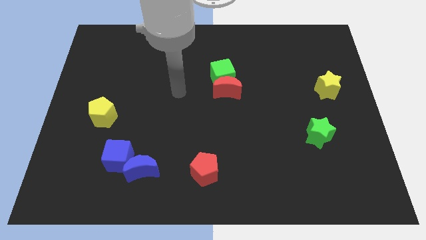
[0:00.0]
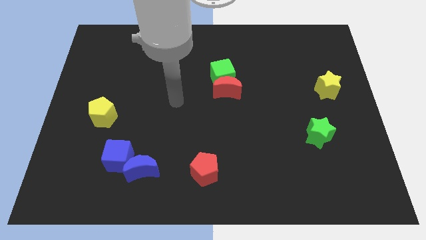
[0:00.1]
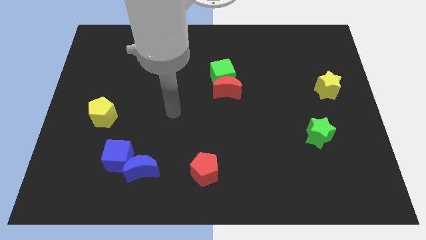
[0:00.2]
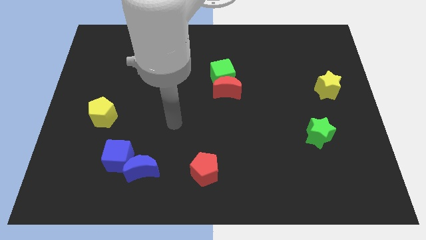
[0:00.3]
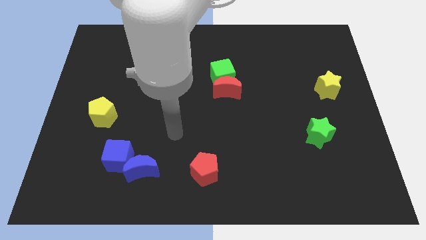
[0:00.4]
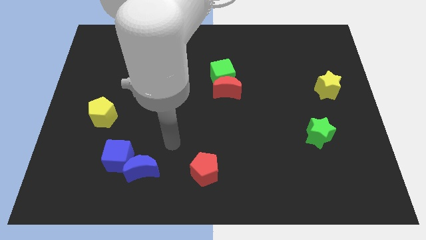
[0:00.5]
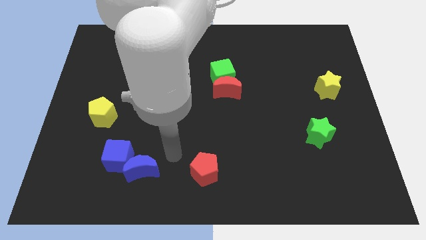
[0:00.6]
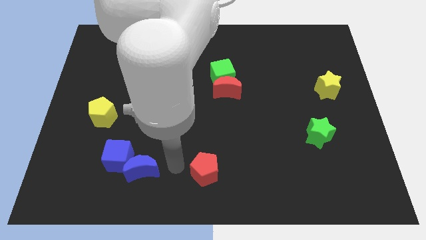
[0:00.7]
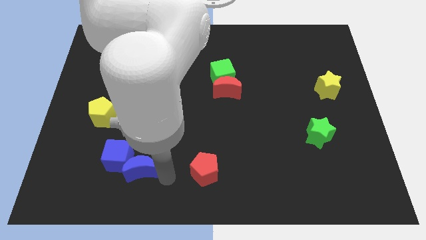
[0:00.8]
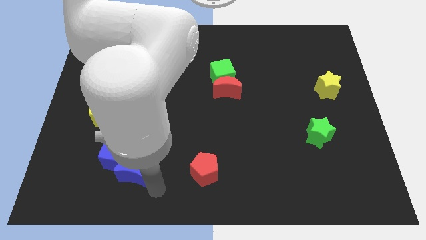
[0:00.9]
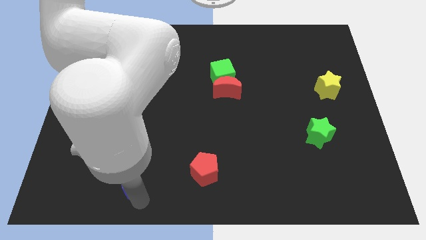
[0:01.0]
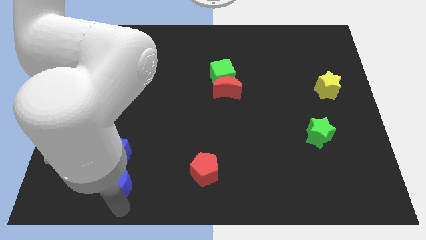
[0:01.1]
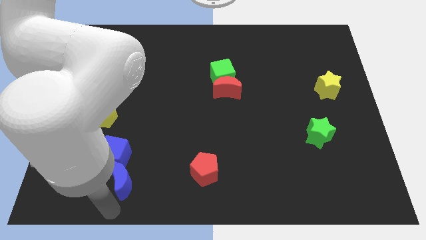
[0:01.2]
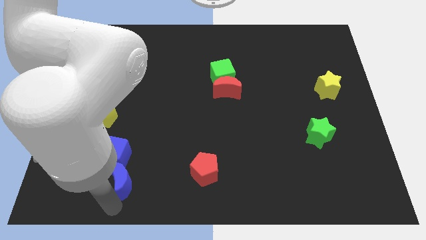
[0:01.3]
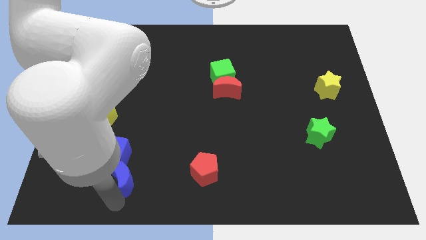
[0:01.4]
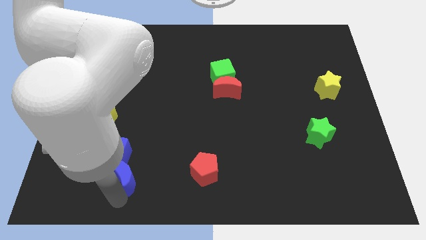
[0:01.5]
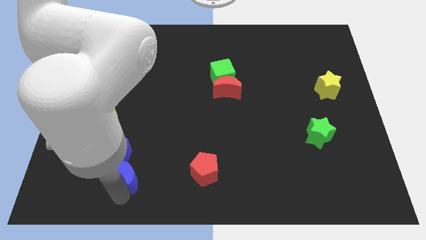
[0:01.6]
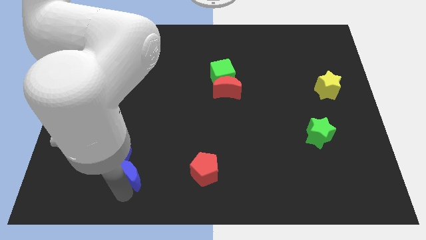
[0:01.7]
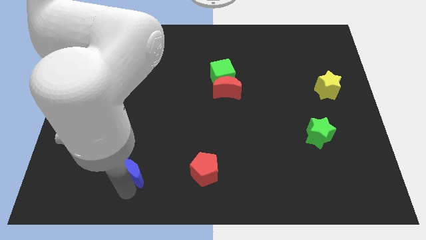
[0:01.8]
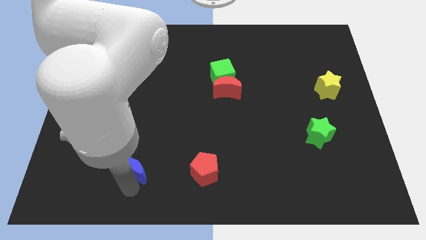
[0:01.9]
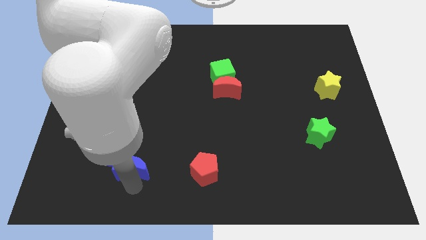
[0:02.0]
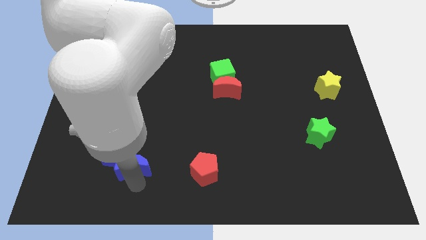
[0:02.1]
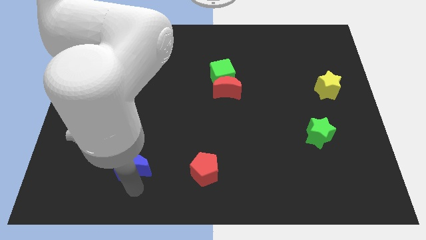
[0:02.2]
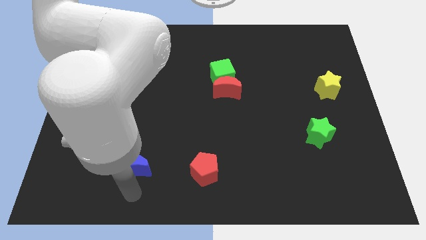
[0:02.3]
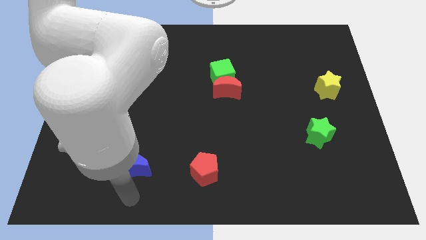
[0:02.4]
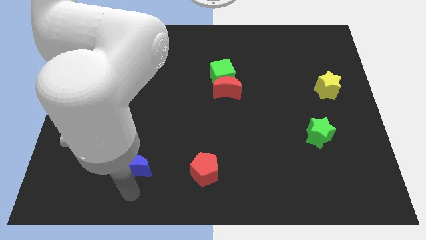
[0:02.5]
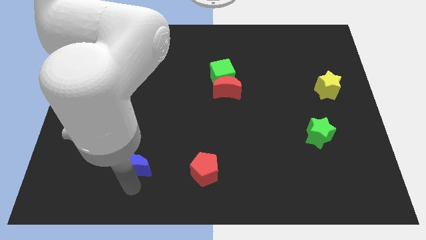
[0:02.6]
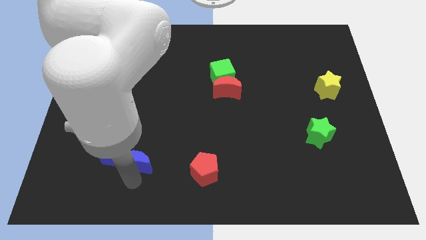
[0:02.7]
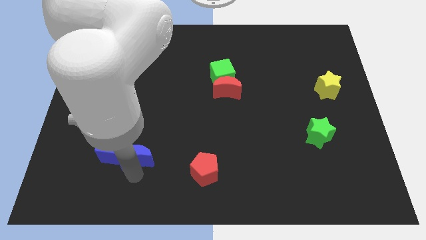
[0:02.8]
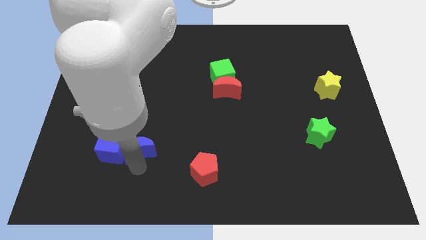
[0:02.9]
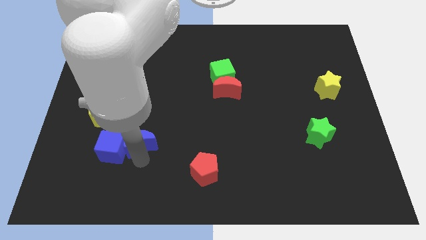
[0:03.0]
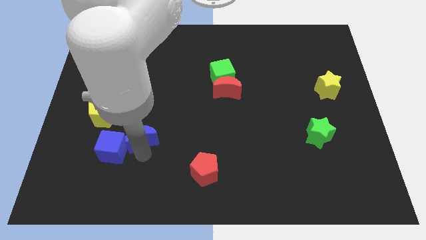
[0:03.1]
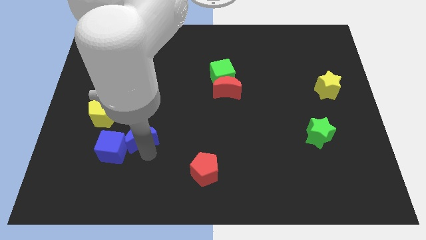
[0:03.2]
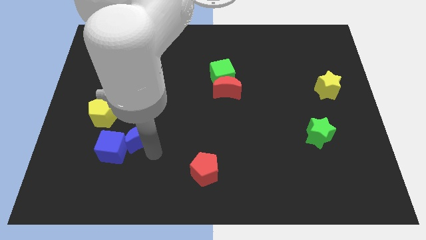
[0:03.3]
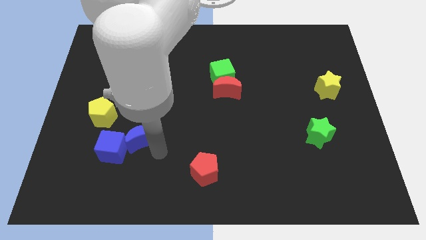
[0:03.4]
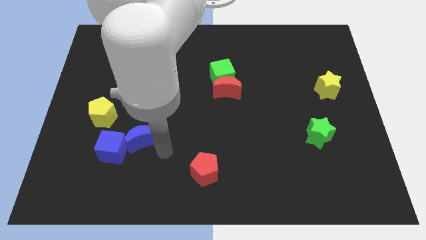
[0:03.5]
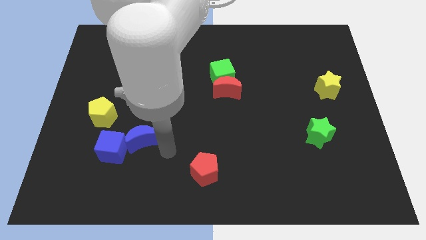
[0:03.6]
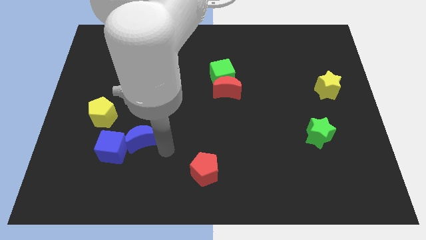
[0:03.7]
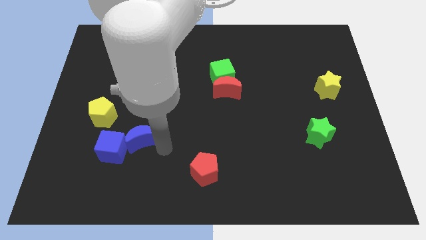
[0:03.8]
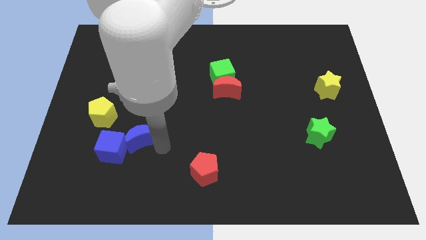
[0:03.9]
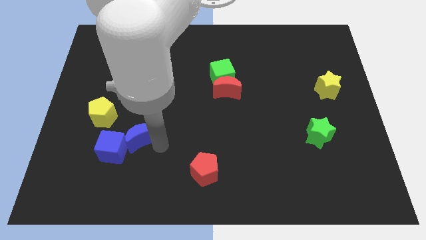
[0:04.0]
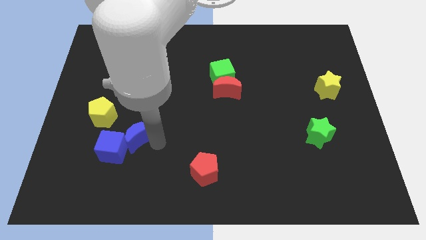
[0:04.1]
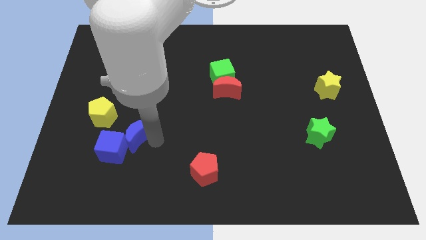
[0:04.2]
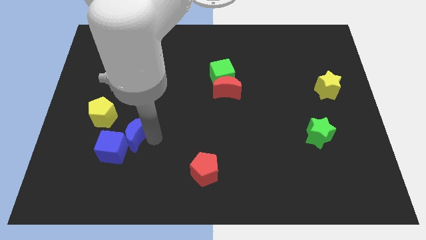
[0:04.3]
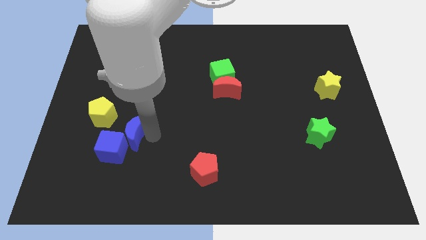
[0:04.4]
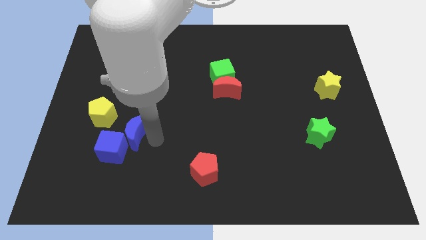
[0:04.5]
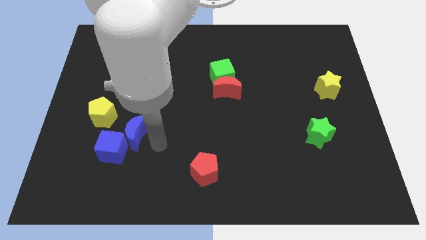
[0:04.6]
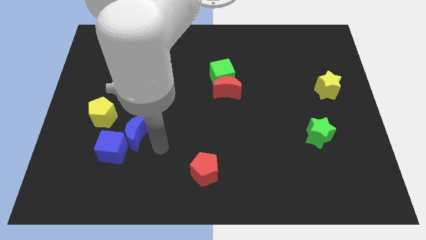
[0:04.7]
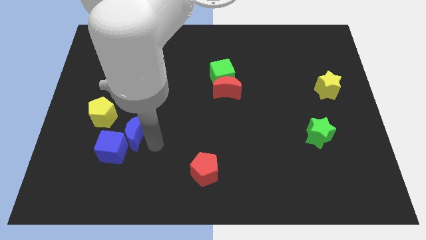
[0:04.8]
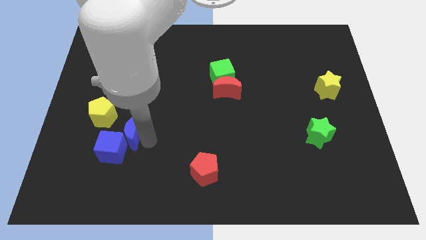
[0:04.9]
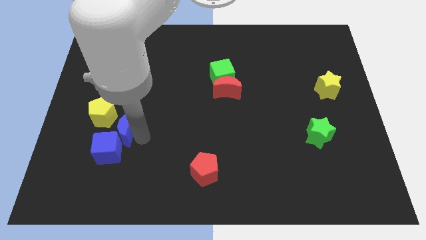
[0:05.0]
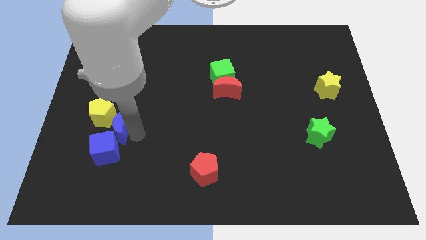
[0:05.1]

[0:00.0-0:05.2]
put the blue moon towards the yellow pentagon

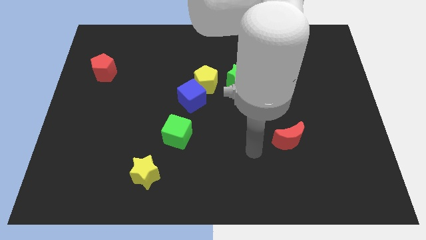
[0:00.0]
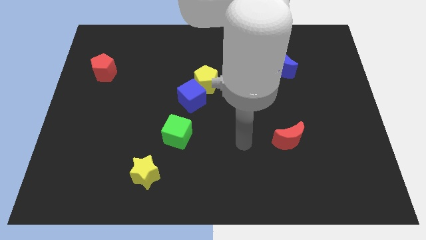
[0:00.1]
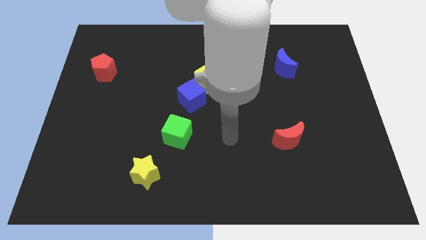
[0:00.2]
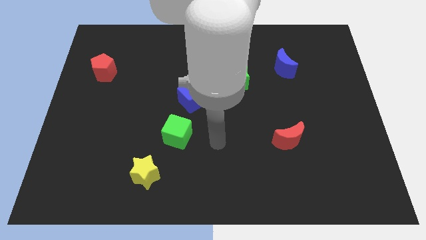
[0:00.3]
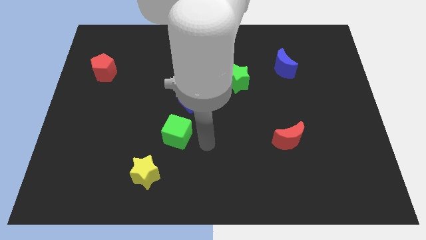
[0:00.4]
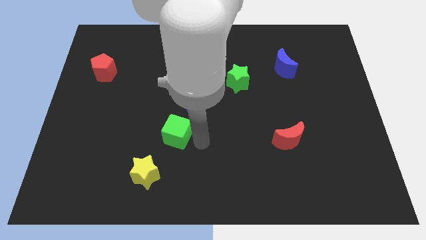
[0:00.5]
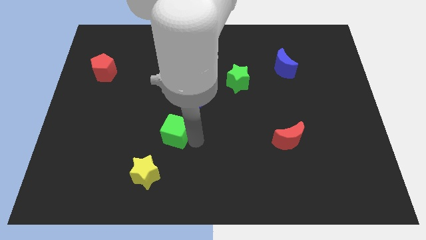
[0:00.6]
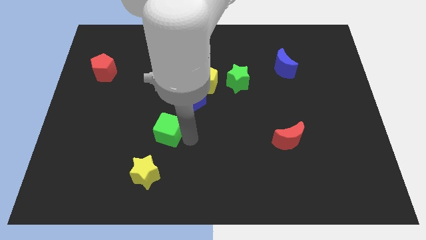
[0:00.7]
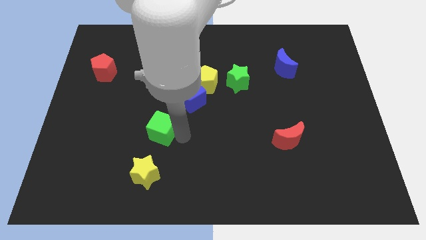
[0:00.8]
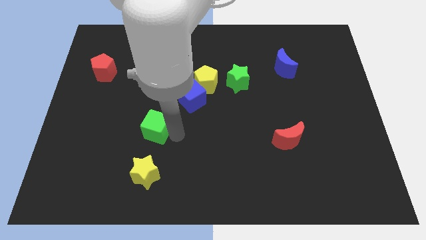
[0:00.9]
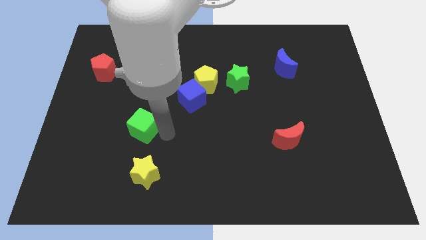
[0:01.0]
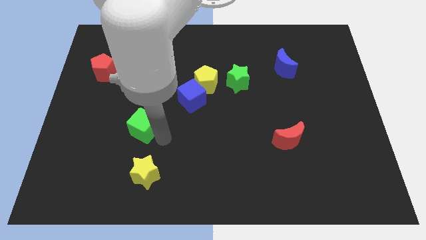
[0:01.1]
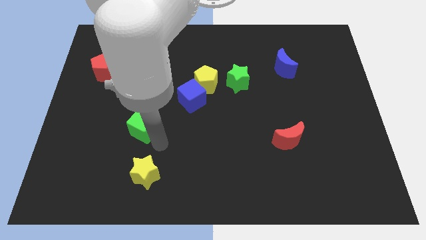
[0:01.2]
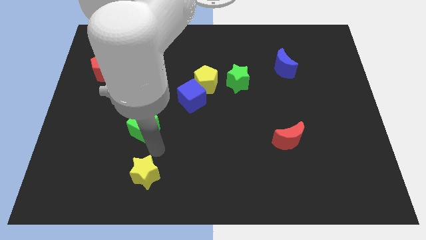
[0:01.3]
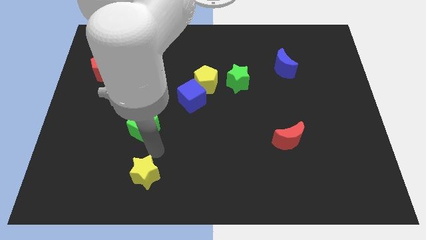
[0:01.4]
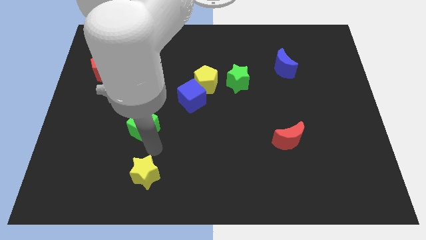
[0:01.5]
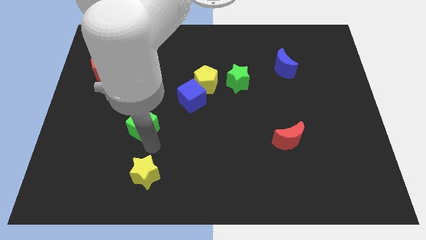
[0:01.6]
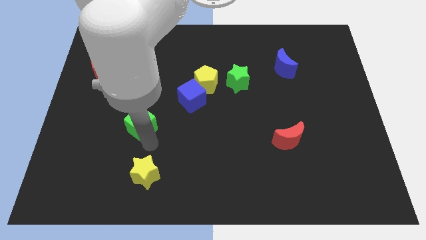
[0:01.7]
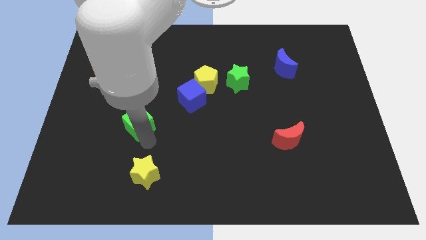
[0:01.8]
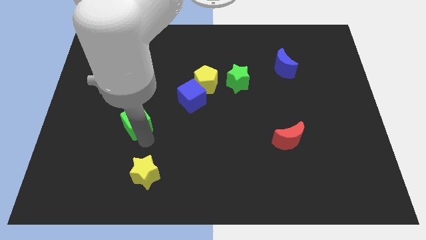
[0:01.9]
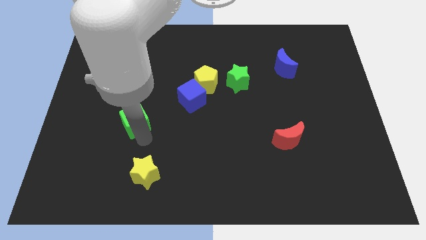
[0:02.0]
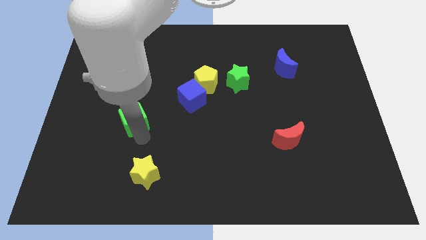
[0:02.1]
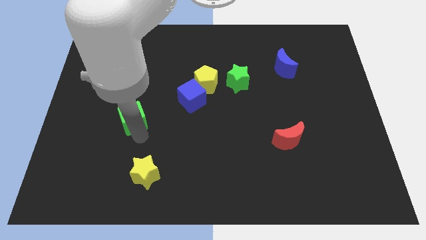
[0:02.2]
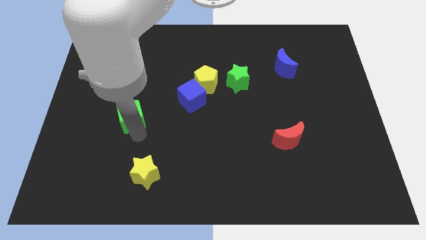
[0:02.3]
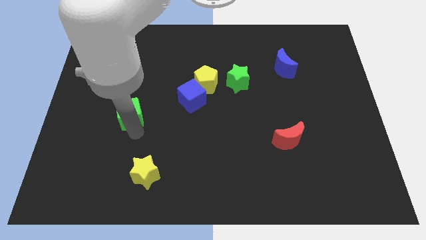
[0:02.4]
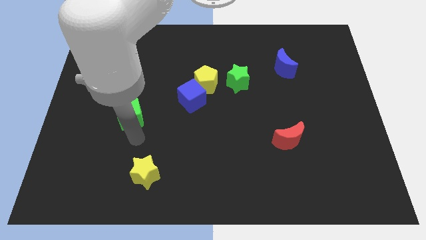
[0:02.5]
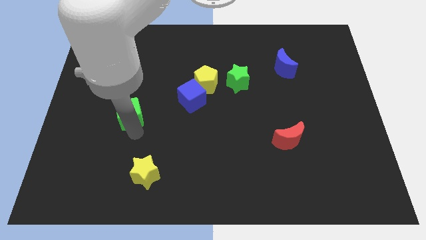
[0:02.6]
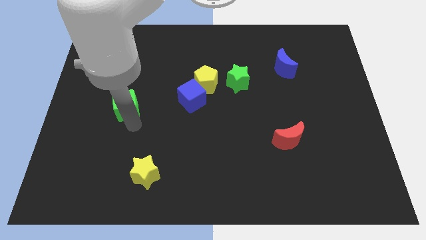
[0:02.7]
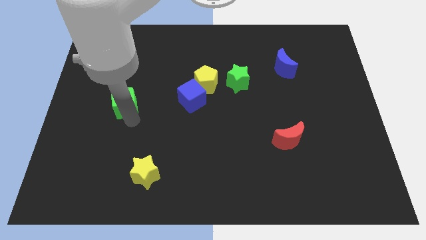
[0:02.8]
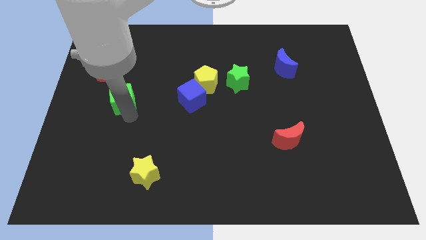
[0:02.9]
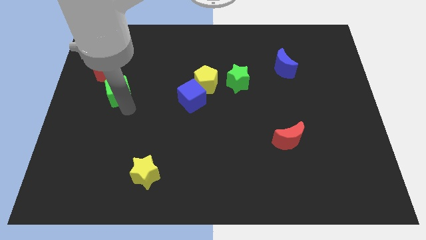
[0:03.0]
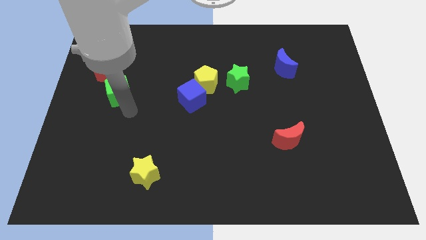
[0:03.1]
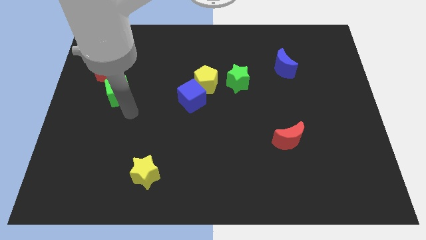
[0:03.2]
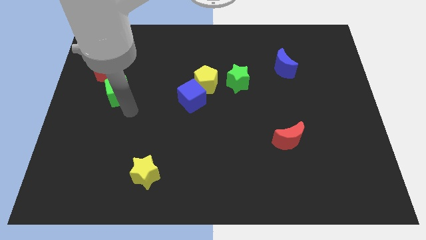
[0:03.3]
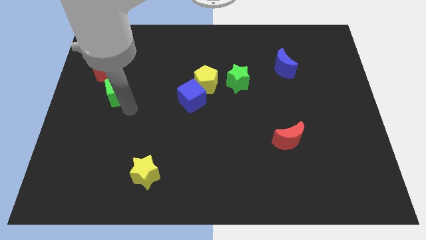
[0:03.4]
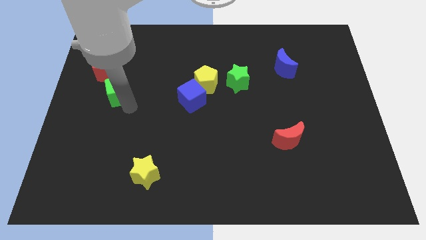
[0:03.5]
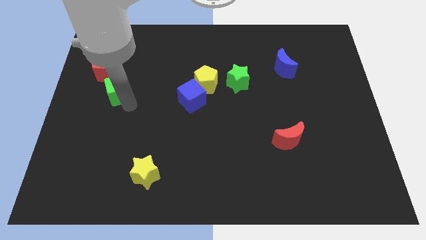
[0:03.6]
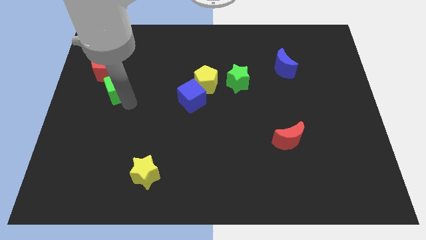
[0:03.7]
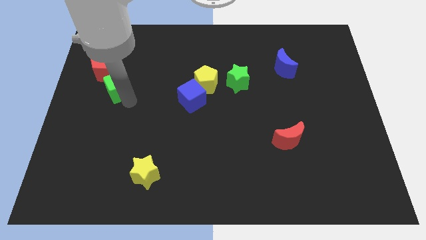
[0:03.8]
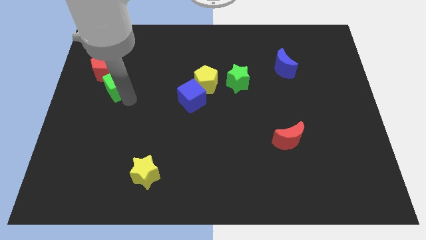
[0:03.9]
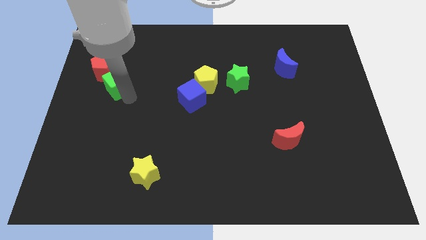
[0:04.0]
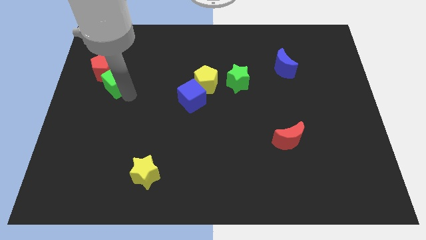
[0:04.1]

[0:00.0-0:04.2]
push the green cube to the red pentagon
